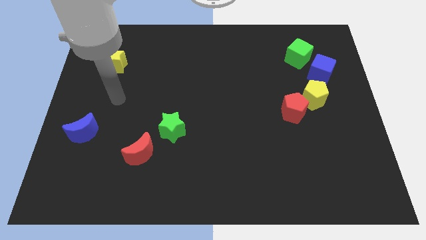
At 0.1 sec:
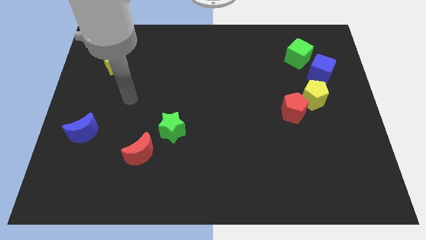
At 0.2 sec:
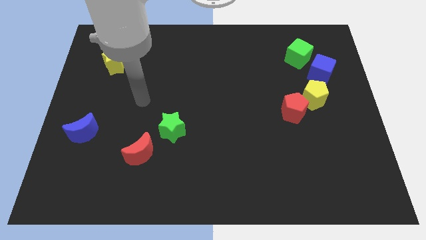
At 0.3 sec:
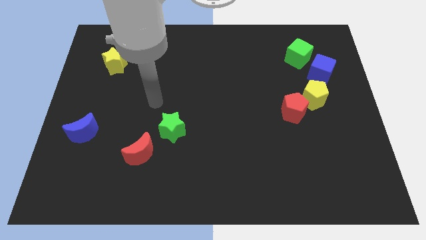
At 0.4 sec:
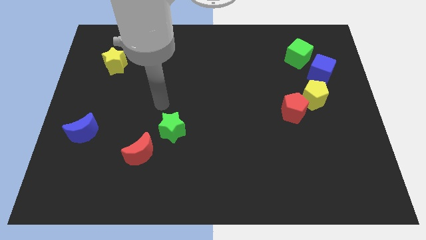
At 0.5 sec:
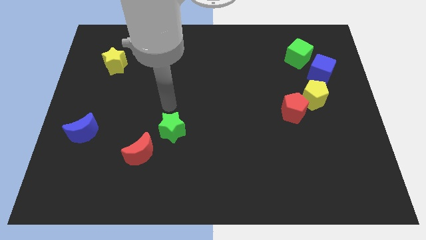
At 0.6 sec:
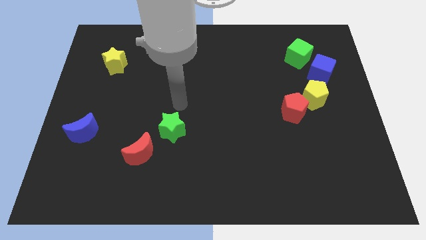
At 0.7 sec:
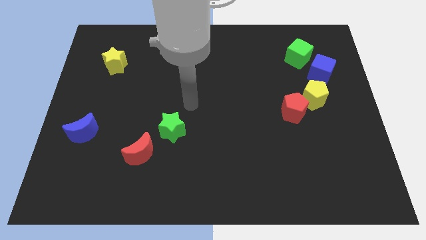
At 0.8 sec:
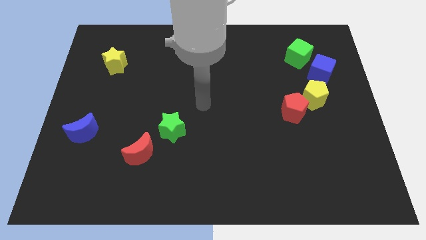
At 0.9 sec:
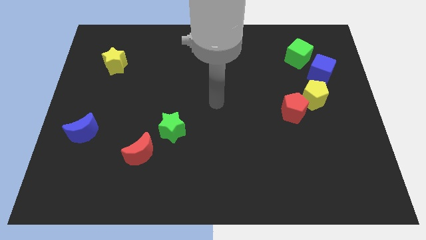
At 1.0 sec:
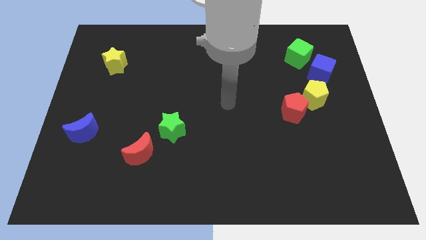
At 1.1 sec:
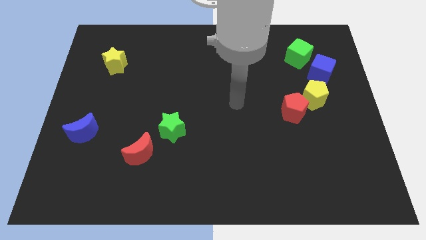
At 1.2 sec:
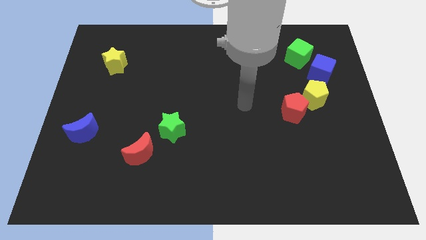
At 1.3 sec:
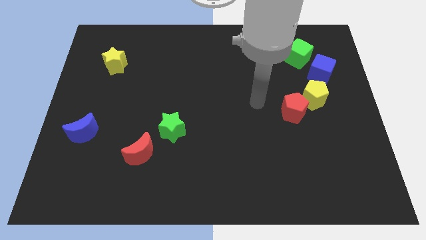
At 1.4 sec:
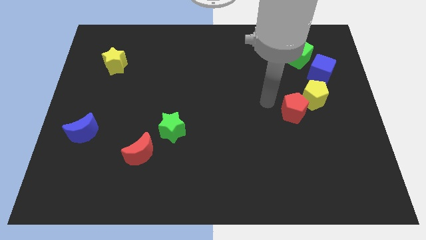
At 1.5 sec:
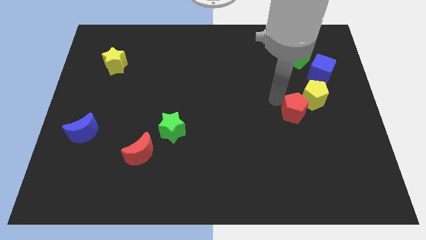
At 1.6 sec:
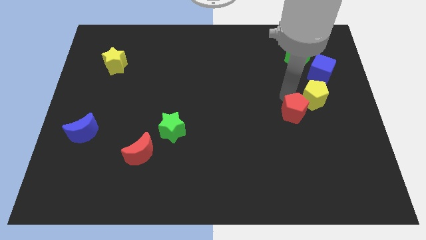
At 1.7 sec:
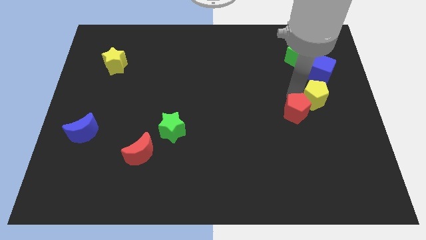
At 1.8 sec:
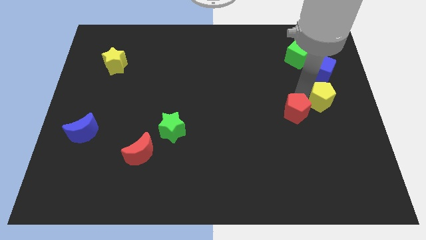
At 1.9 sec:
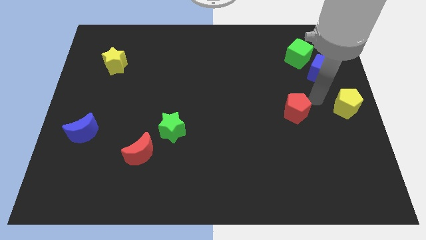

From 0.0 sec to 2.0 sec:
move the red pentagon away from the yellow pentagon

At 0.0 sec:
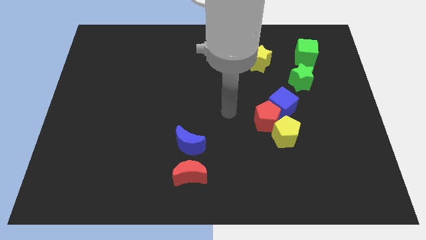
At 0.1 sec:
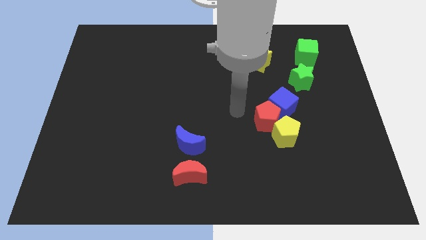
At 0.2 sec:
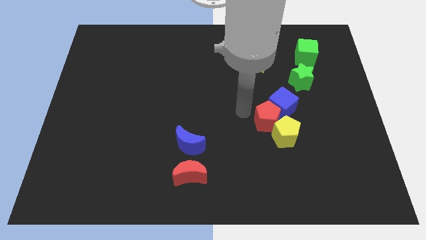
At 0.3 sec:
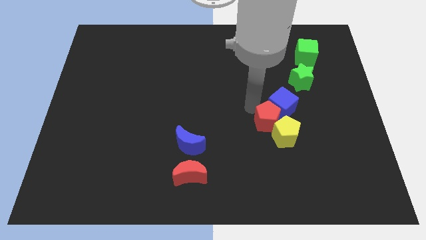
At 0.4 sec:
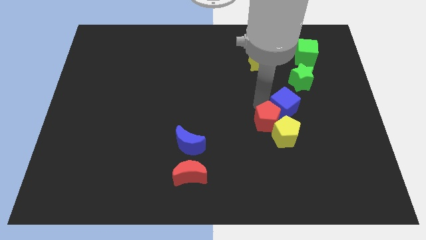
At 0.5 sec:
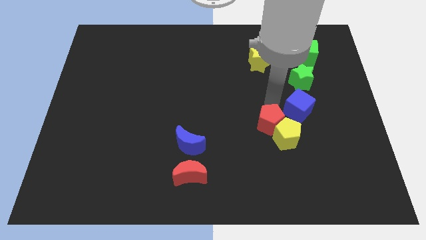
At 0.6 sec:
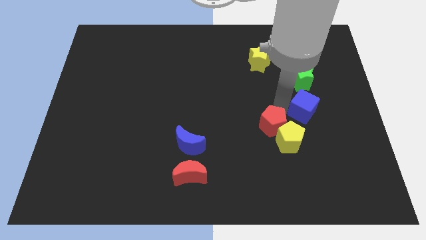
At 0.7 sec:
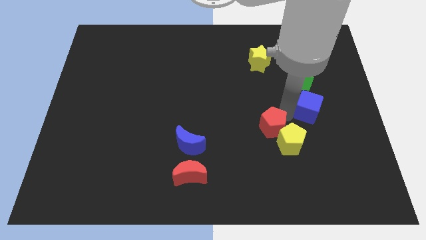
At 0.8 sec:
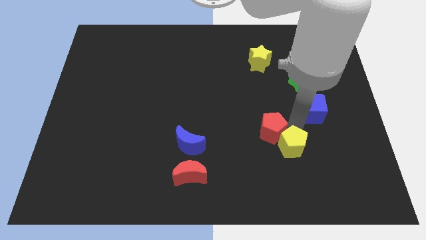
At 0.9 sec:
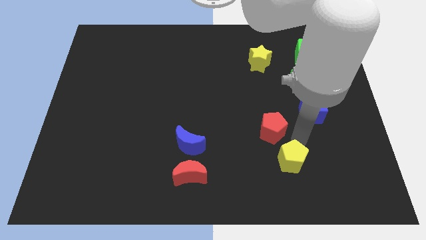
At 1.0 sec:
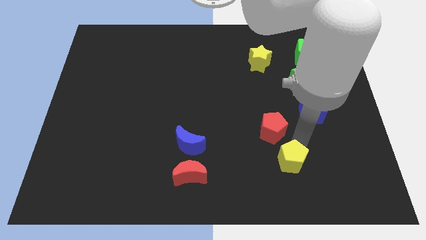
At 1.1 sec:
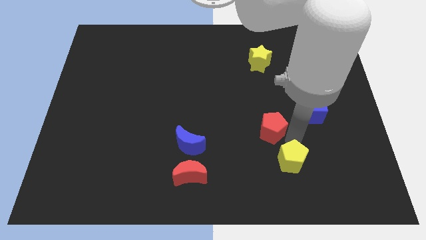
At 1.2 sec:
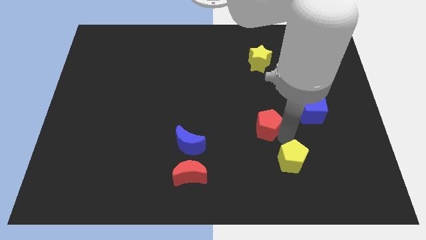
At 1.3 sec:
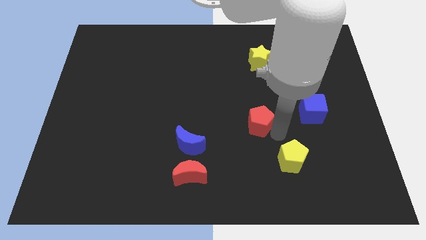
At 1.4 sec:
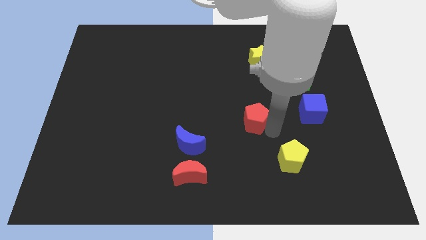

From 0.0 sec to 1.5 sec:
pull the red pentagon apart from the blue cube and yellow pentagon

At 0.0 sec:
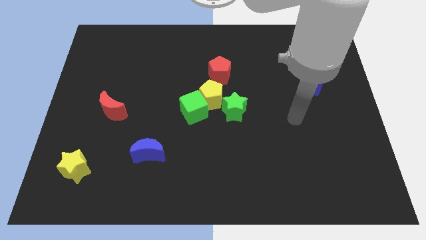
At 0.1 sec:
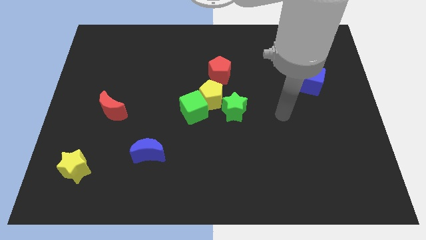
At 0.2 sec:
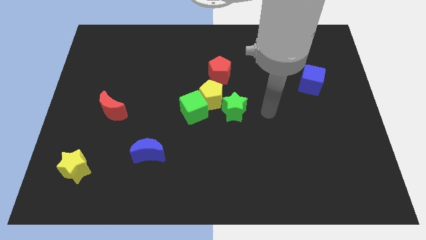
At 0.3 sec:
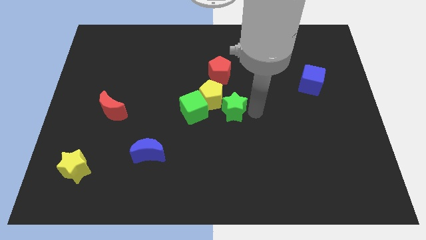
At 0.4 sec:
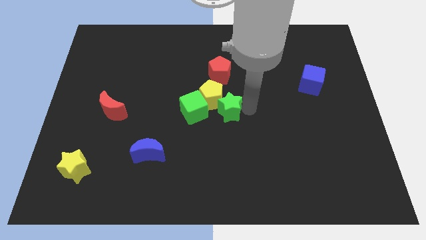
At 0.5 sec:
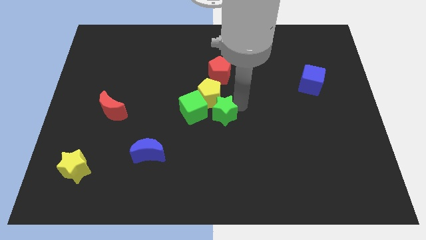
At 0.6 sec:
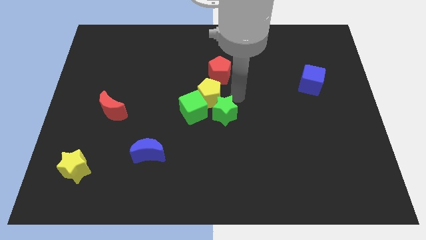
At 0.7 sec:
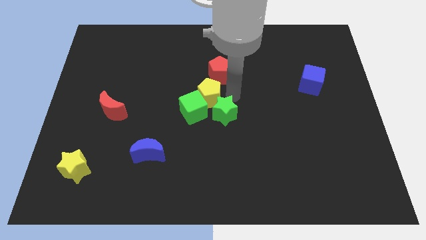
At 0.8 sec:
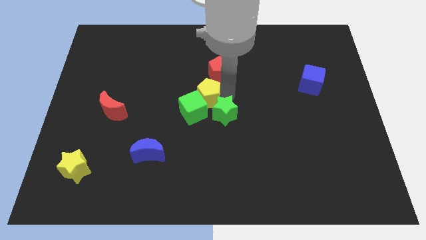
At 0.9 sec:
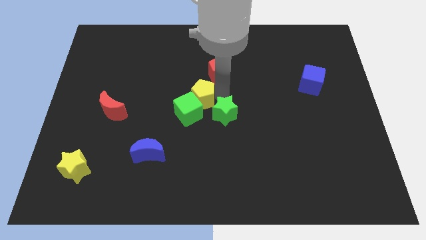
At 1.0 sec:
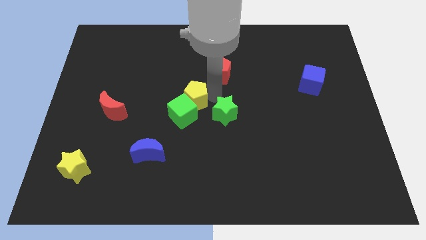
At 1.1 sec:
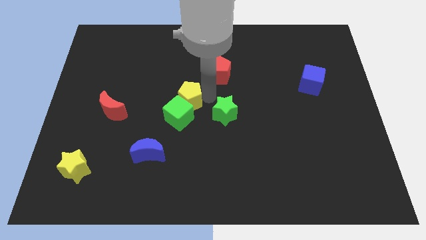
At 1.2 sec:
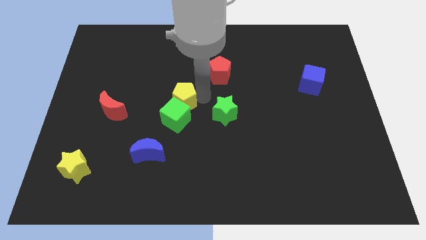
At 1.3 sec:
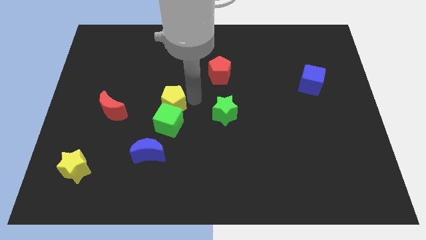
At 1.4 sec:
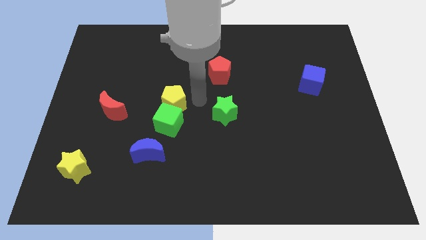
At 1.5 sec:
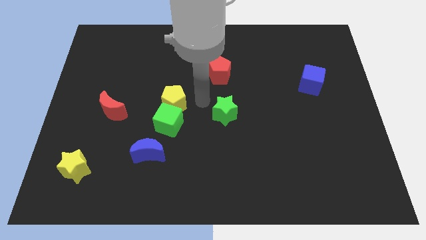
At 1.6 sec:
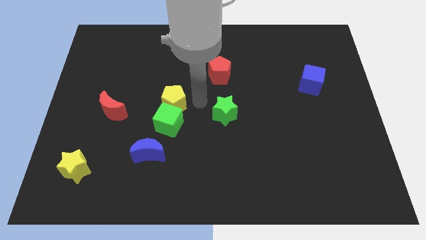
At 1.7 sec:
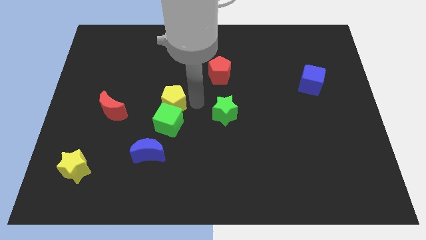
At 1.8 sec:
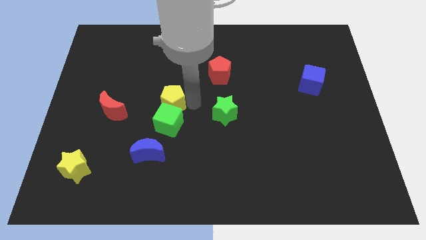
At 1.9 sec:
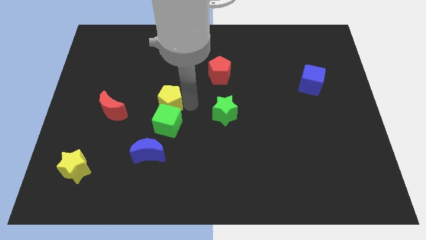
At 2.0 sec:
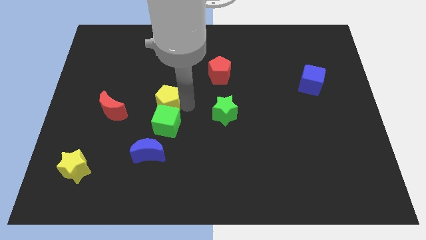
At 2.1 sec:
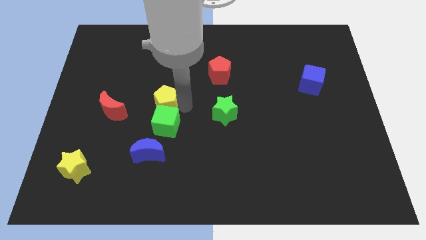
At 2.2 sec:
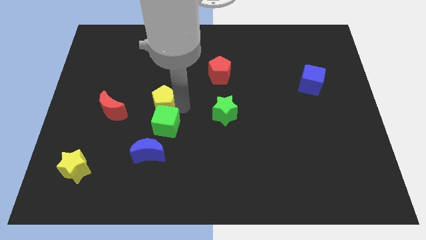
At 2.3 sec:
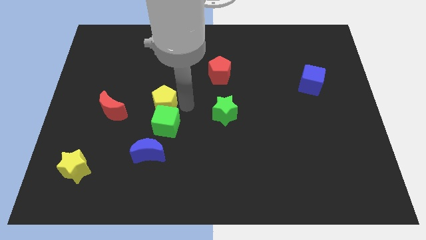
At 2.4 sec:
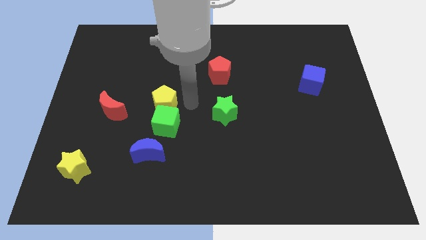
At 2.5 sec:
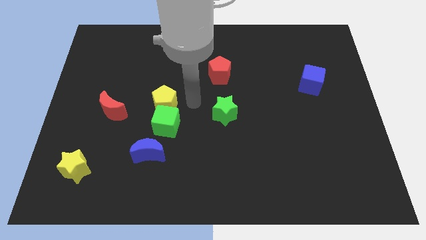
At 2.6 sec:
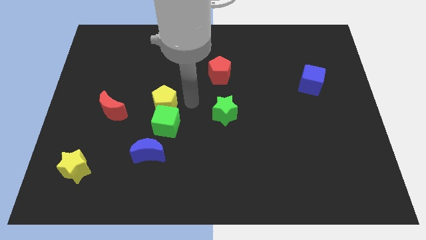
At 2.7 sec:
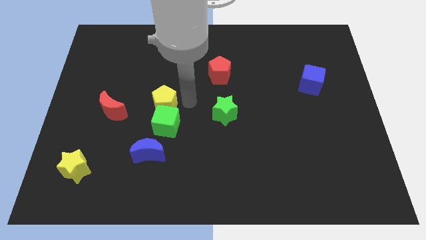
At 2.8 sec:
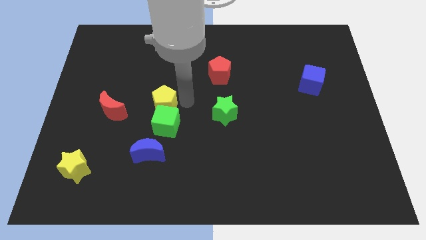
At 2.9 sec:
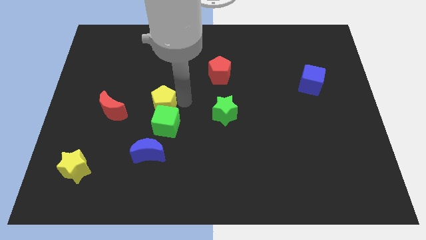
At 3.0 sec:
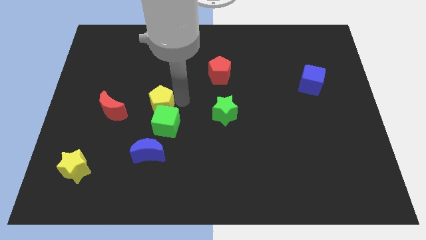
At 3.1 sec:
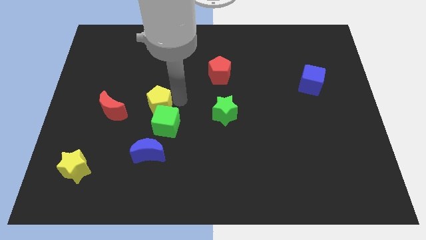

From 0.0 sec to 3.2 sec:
move the yellow pentagon away from the clump

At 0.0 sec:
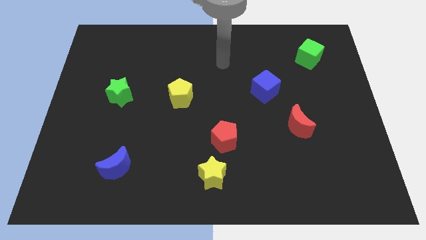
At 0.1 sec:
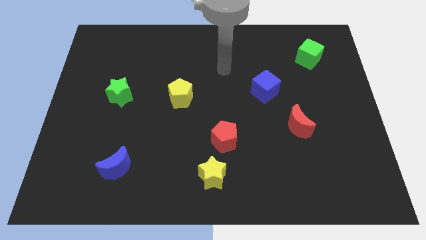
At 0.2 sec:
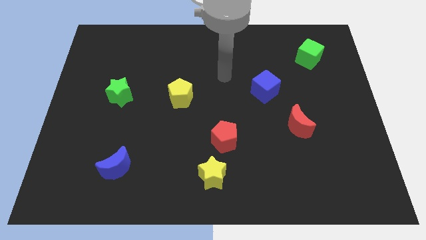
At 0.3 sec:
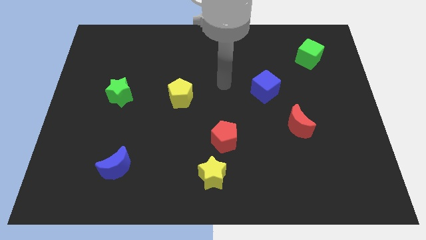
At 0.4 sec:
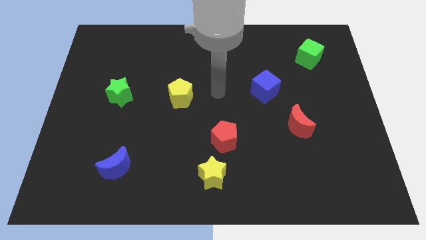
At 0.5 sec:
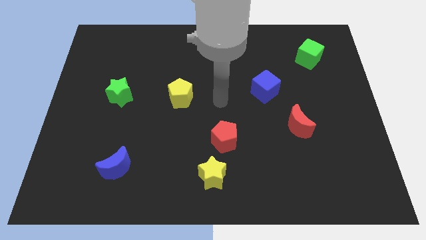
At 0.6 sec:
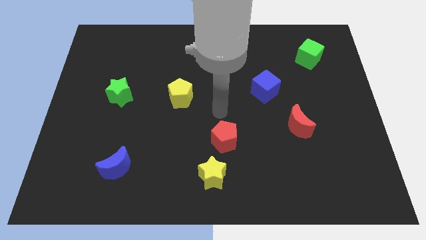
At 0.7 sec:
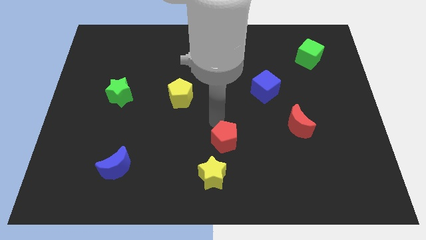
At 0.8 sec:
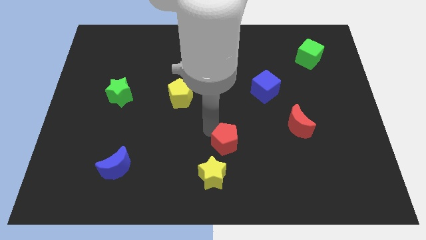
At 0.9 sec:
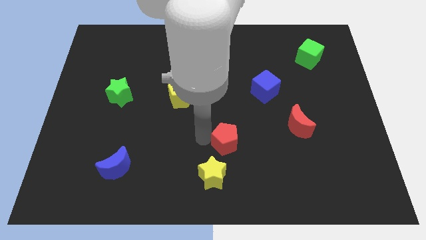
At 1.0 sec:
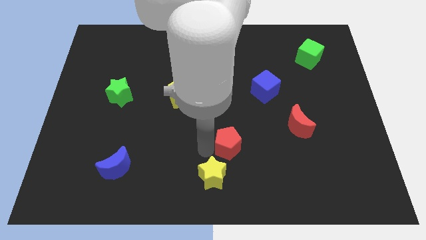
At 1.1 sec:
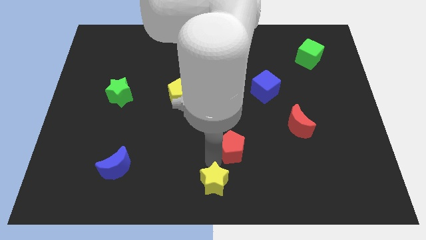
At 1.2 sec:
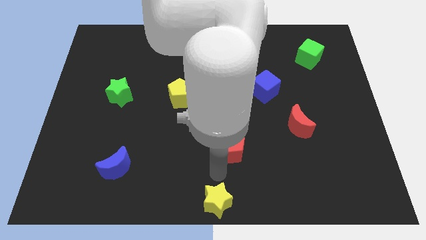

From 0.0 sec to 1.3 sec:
move the red pentagon away from the yellow star

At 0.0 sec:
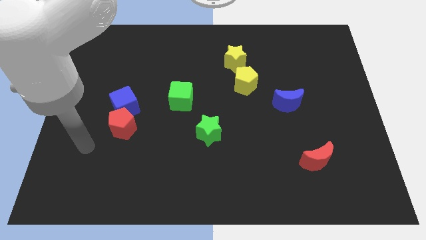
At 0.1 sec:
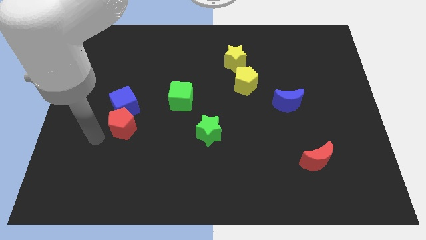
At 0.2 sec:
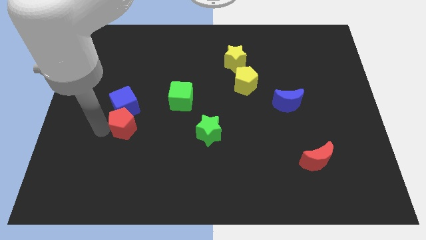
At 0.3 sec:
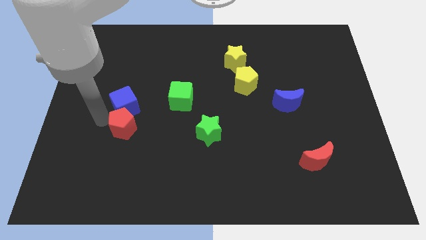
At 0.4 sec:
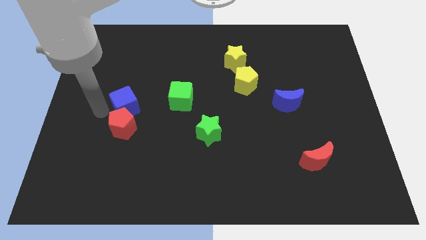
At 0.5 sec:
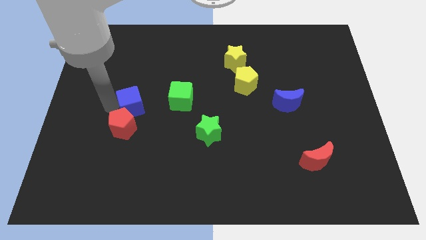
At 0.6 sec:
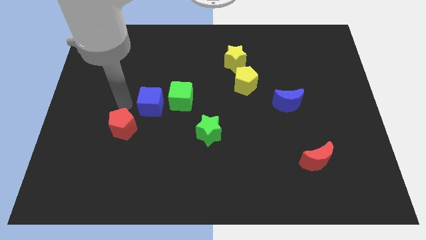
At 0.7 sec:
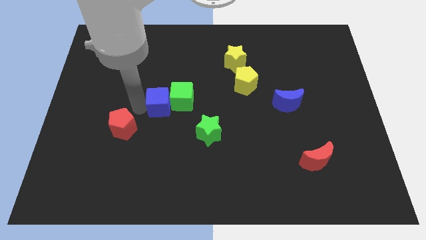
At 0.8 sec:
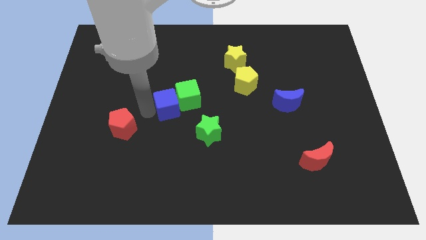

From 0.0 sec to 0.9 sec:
separate the red pentagon from the blue cube

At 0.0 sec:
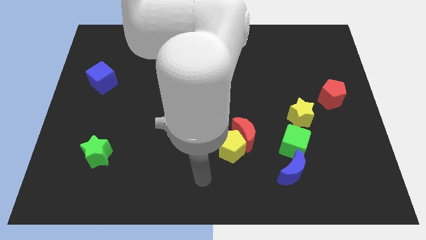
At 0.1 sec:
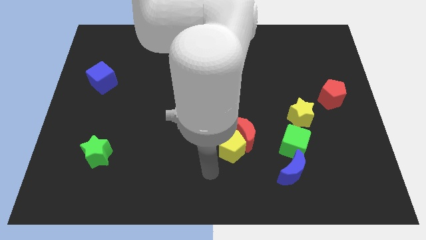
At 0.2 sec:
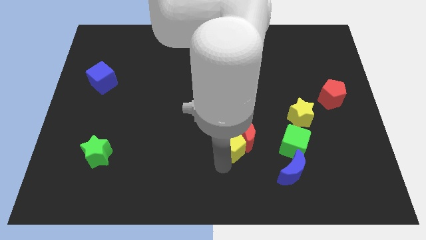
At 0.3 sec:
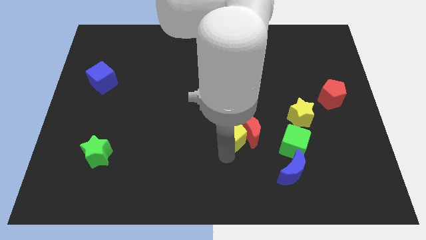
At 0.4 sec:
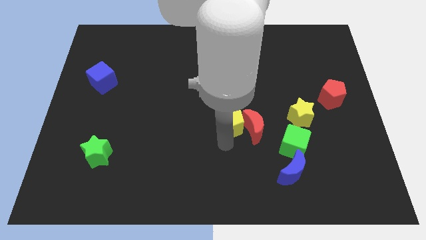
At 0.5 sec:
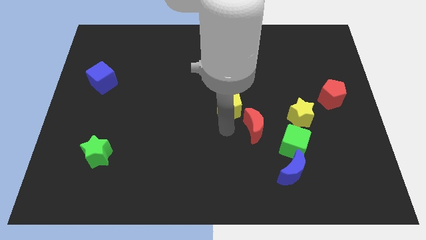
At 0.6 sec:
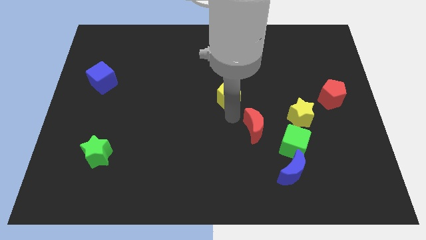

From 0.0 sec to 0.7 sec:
pull the red moon apart from the yellow pentagon
